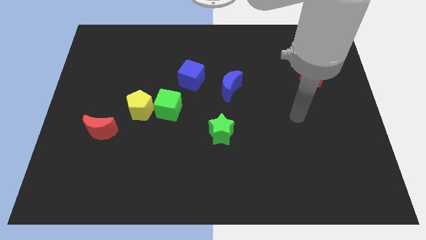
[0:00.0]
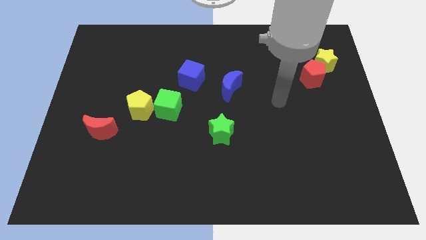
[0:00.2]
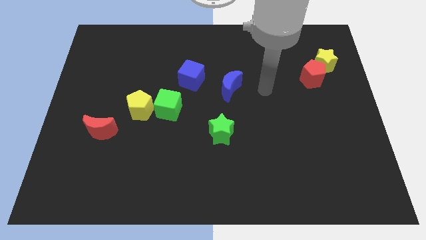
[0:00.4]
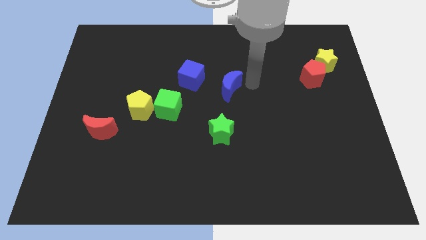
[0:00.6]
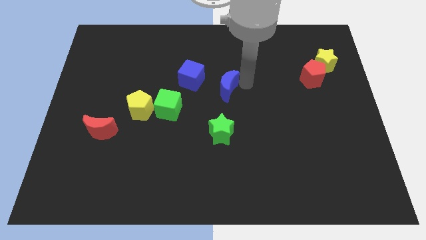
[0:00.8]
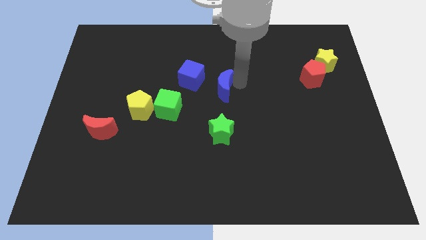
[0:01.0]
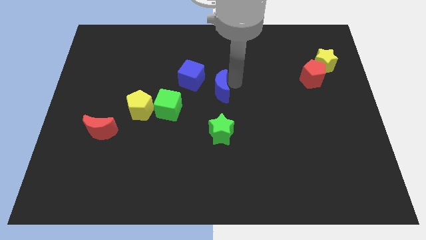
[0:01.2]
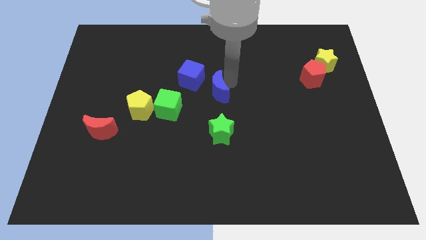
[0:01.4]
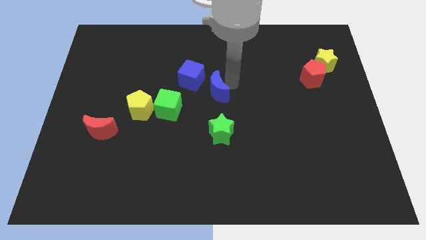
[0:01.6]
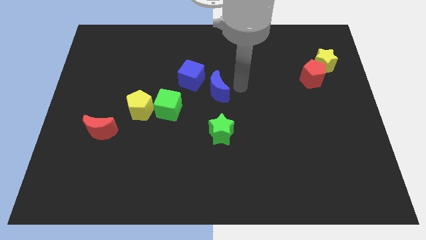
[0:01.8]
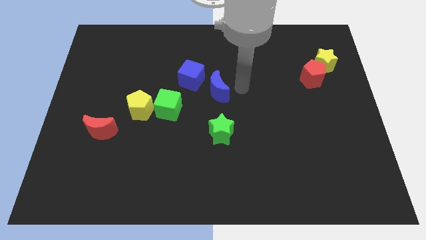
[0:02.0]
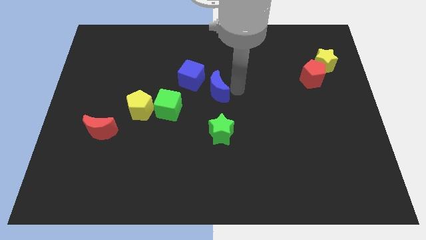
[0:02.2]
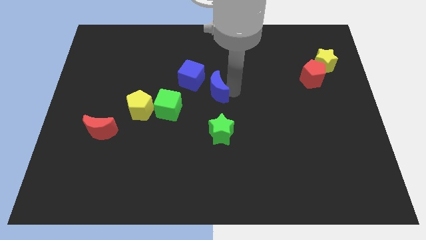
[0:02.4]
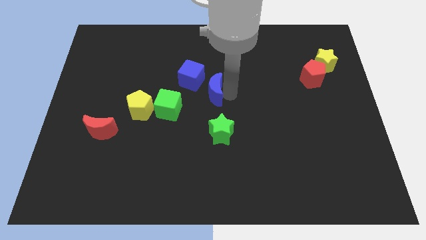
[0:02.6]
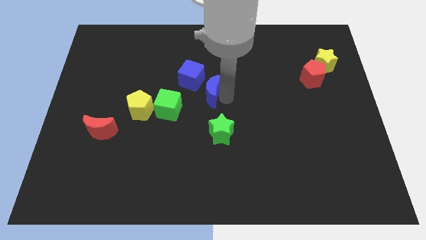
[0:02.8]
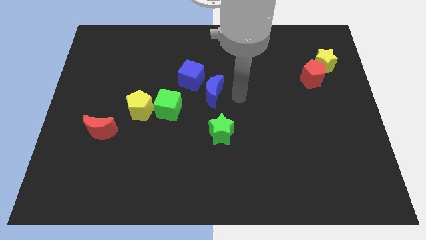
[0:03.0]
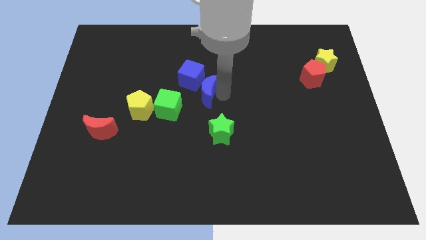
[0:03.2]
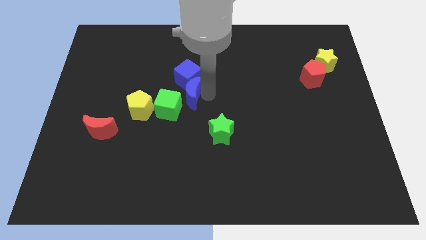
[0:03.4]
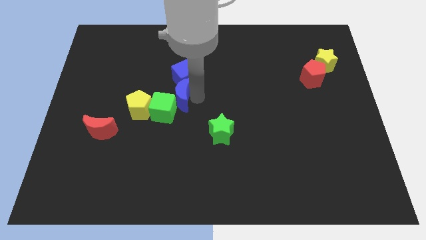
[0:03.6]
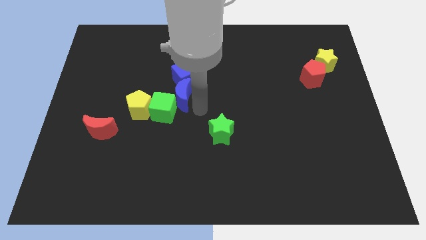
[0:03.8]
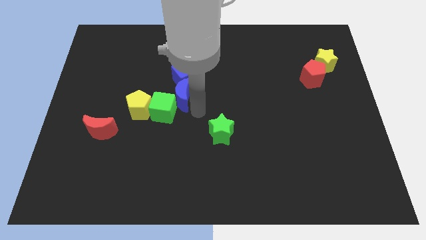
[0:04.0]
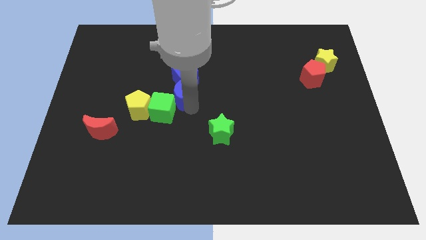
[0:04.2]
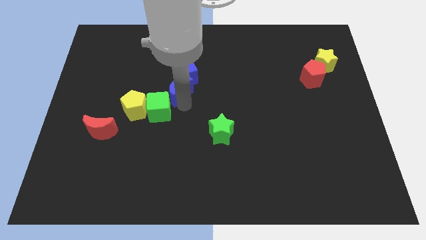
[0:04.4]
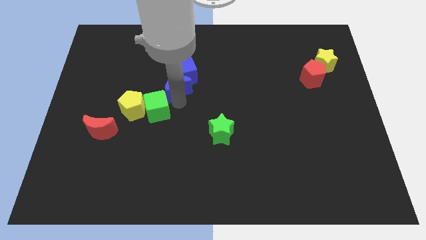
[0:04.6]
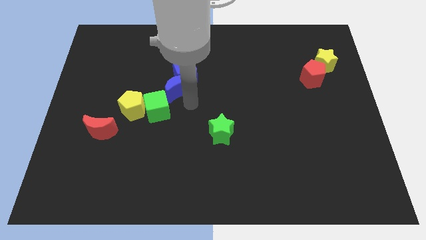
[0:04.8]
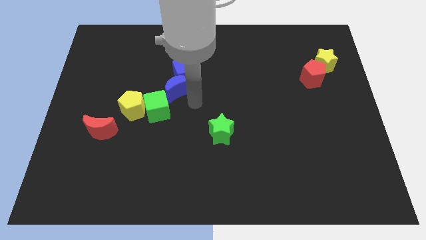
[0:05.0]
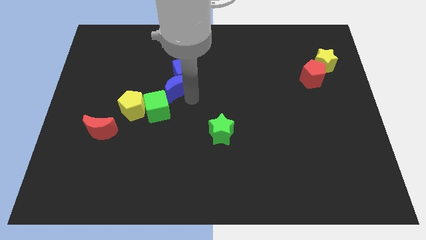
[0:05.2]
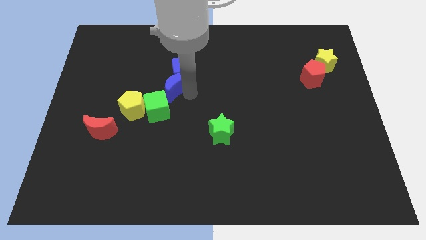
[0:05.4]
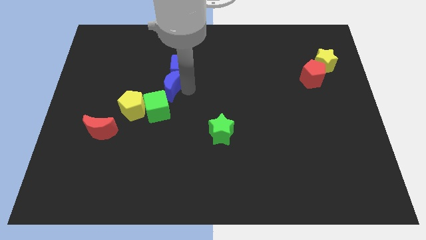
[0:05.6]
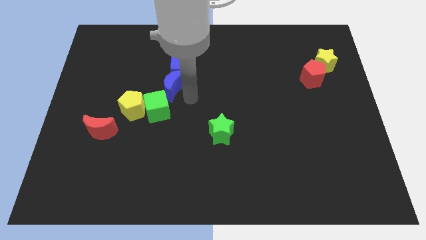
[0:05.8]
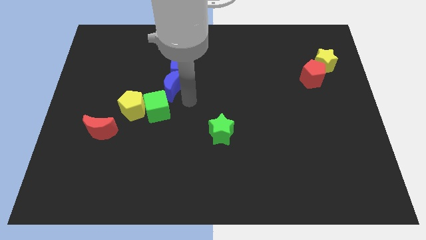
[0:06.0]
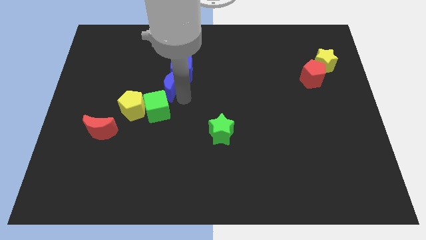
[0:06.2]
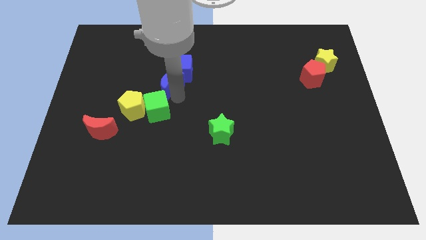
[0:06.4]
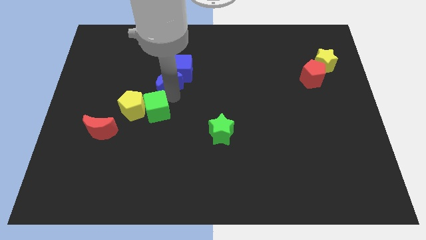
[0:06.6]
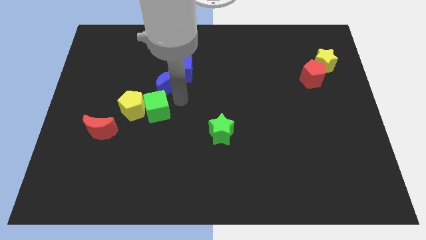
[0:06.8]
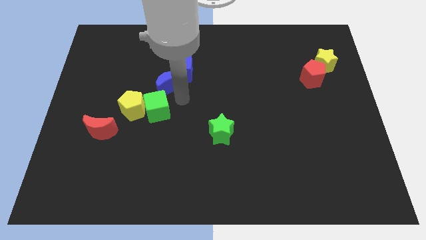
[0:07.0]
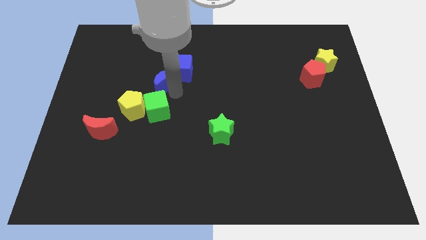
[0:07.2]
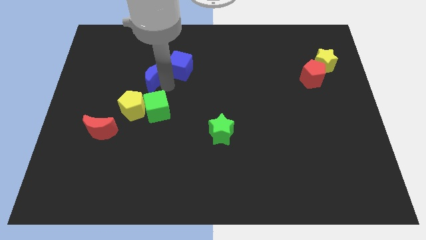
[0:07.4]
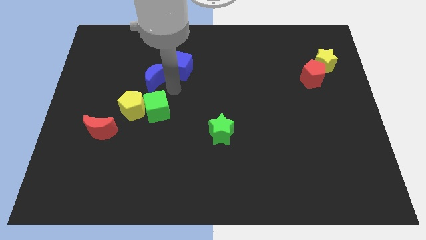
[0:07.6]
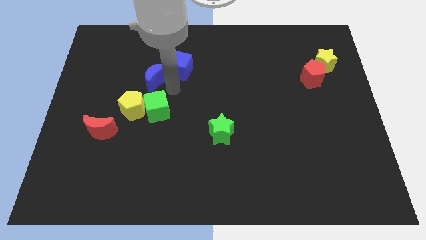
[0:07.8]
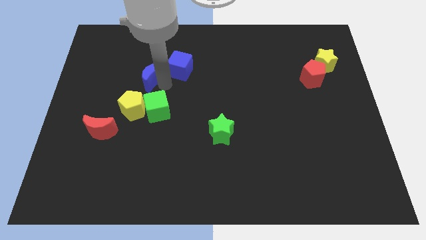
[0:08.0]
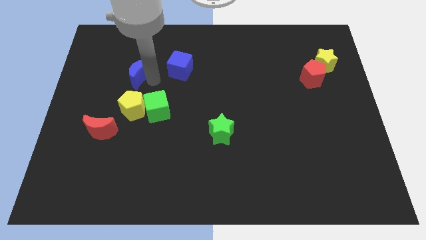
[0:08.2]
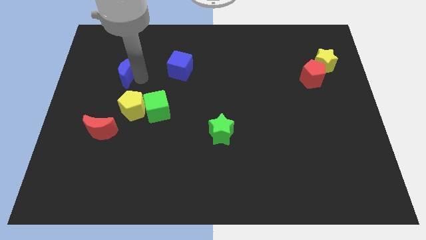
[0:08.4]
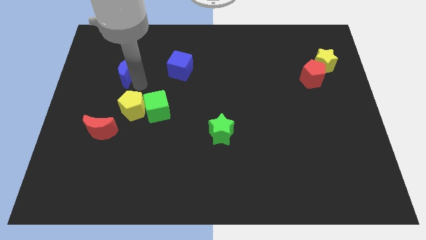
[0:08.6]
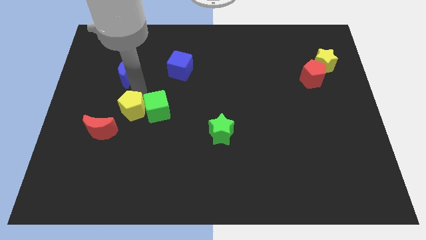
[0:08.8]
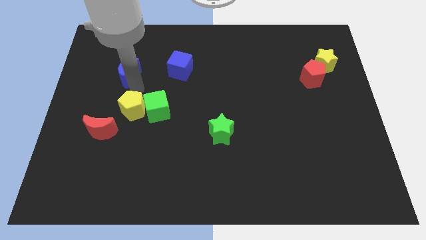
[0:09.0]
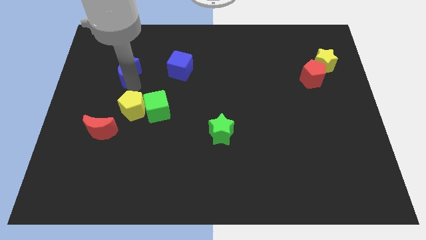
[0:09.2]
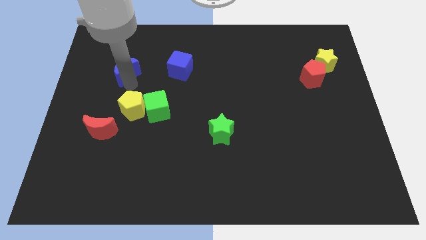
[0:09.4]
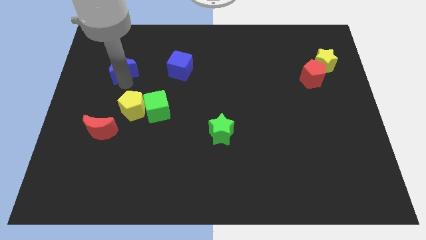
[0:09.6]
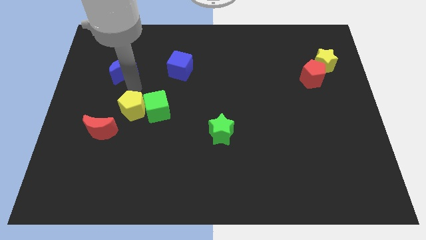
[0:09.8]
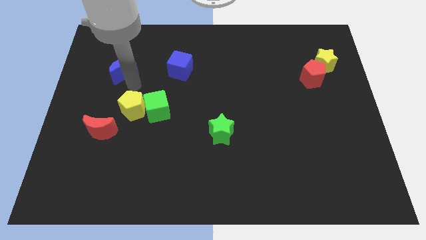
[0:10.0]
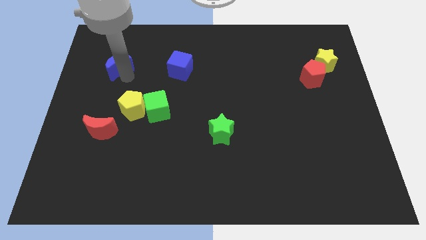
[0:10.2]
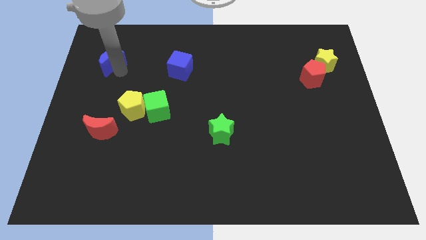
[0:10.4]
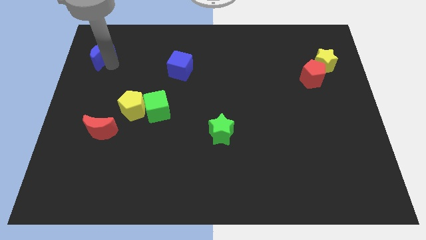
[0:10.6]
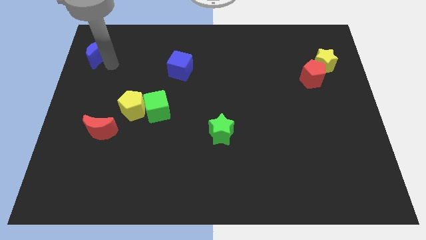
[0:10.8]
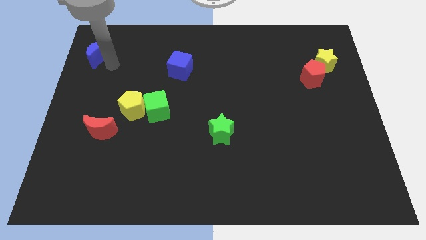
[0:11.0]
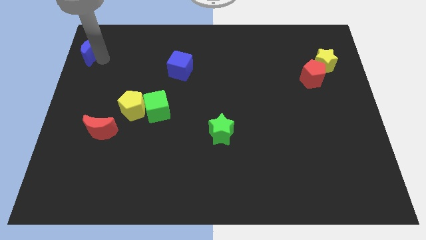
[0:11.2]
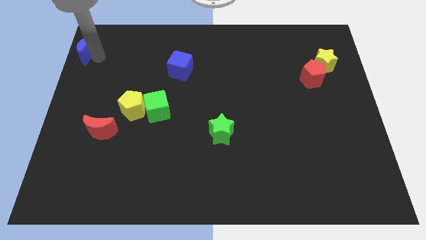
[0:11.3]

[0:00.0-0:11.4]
put the blue moon to the top left corner

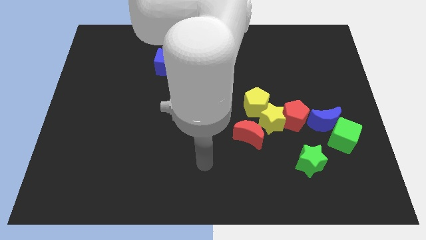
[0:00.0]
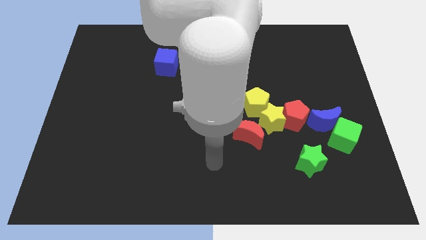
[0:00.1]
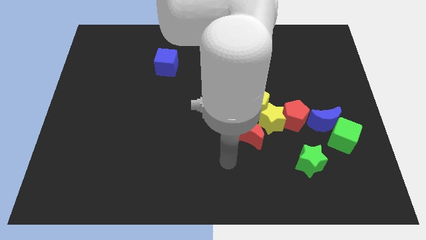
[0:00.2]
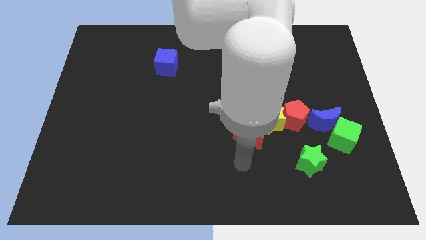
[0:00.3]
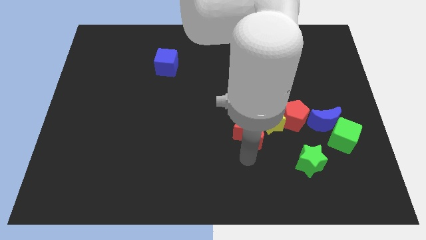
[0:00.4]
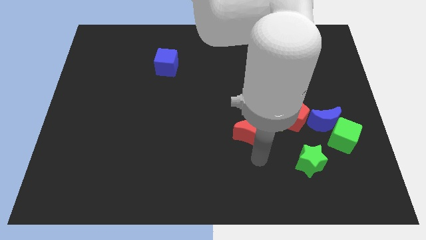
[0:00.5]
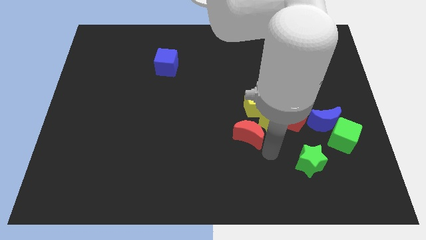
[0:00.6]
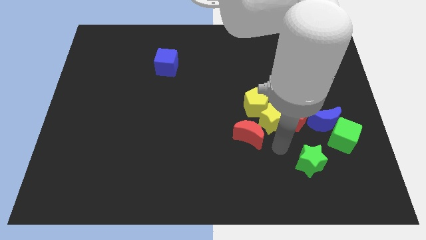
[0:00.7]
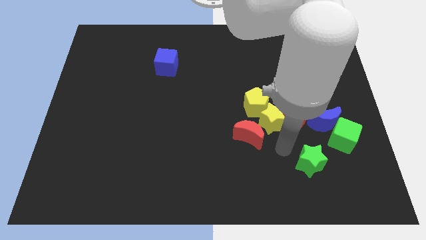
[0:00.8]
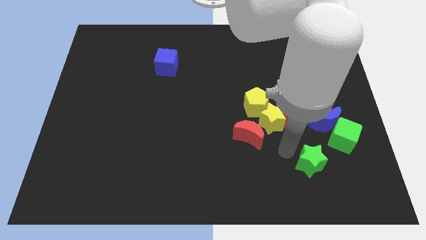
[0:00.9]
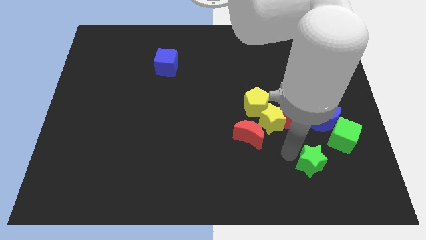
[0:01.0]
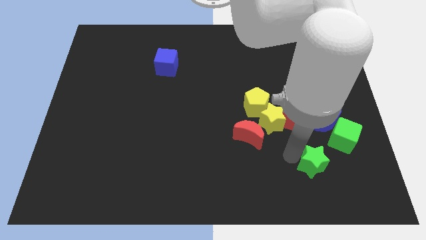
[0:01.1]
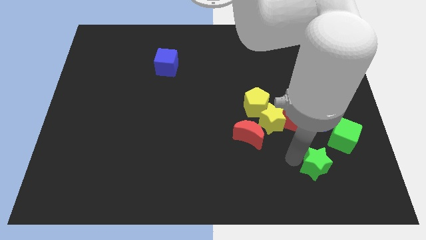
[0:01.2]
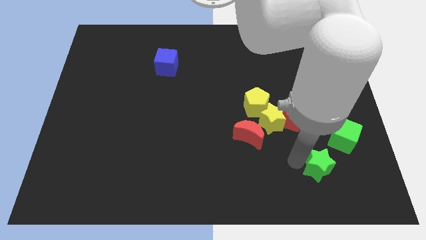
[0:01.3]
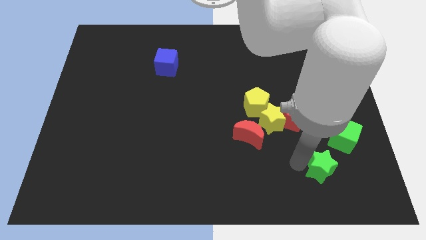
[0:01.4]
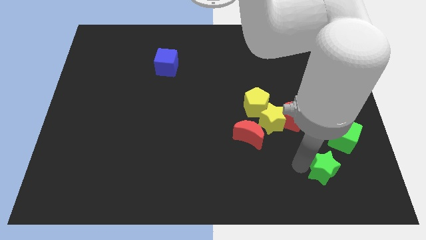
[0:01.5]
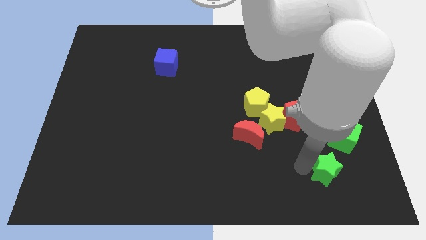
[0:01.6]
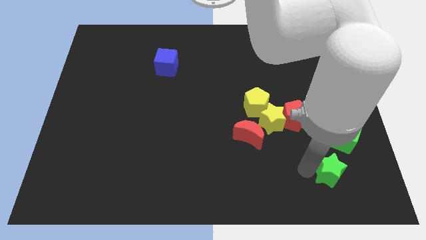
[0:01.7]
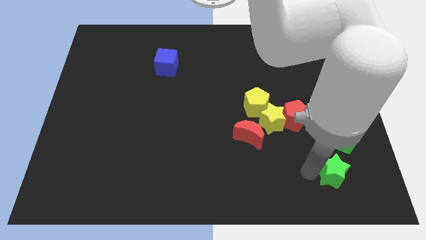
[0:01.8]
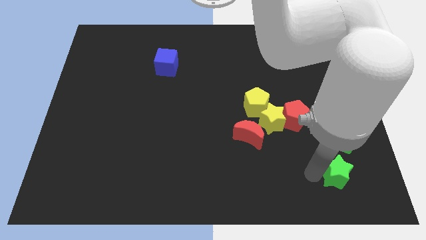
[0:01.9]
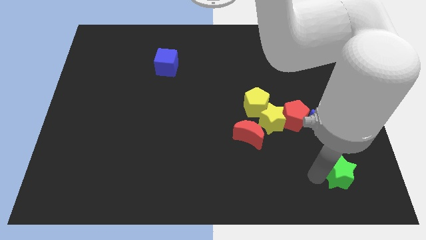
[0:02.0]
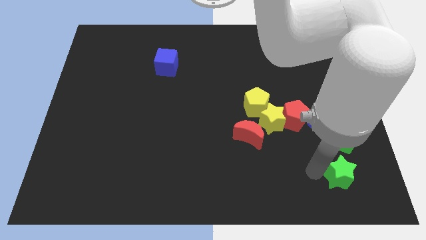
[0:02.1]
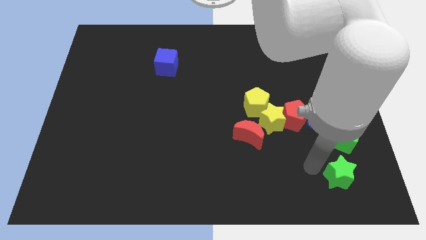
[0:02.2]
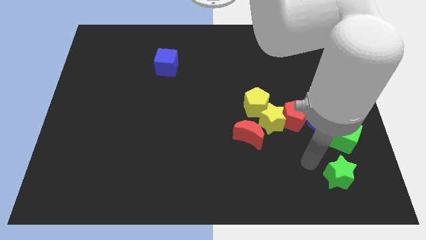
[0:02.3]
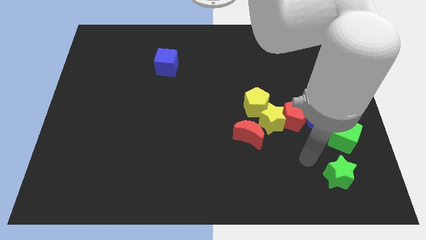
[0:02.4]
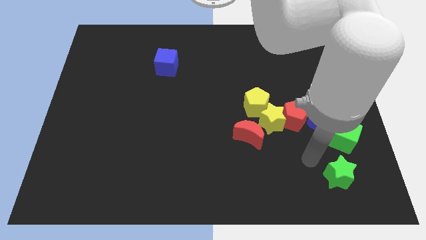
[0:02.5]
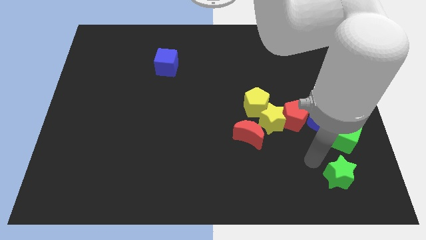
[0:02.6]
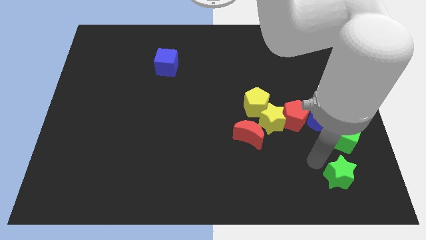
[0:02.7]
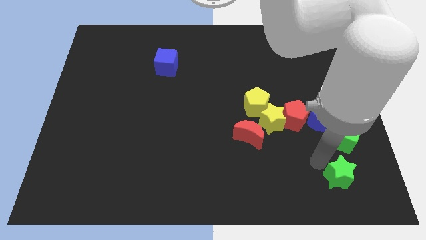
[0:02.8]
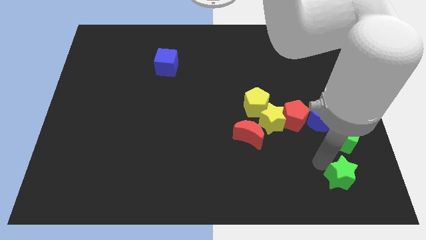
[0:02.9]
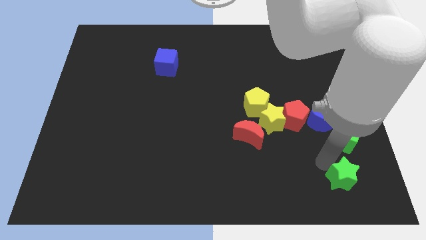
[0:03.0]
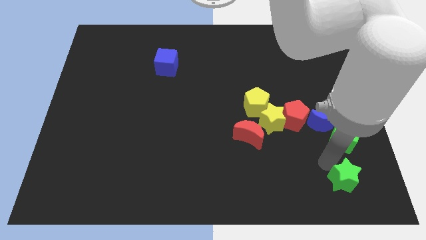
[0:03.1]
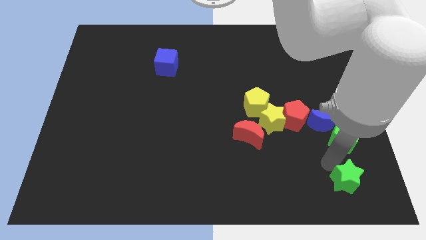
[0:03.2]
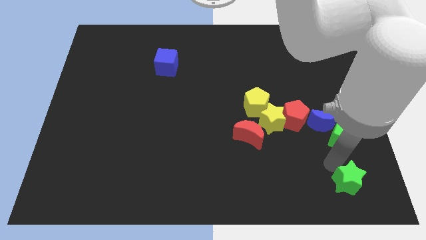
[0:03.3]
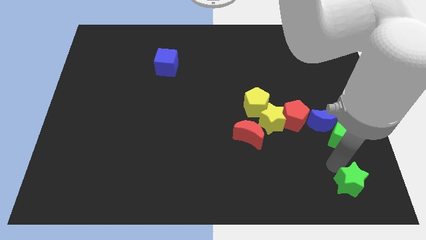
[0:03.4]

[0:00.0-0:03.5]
put the green star to the lower right corner
